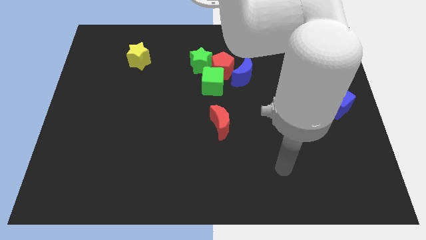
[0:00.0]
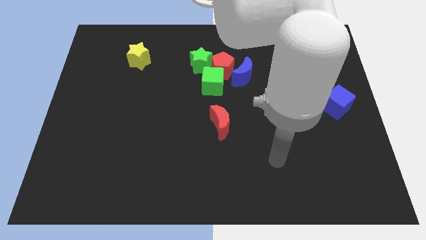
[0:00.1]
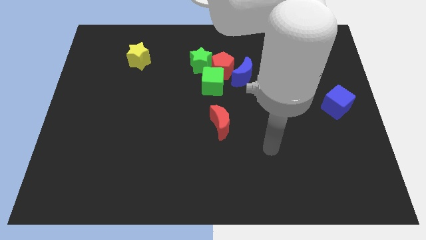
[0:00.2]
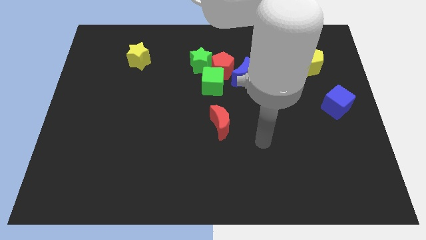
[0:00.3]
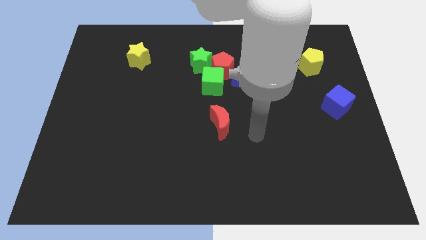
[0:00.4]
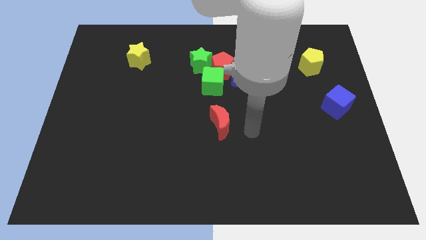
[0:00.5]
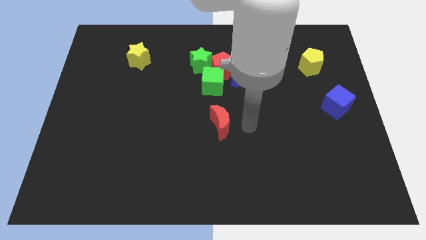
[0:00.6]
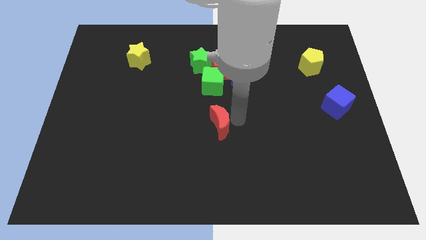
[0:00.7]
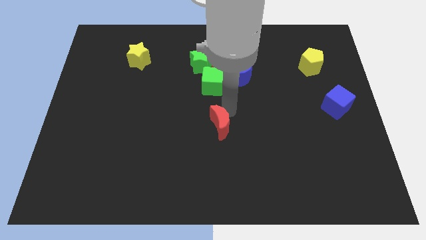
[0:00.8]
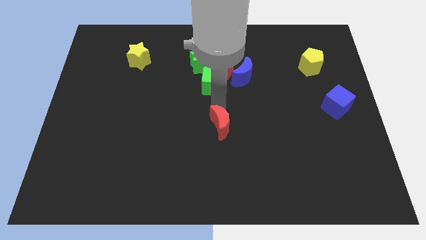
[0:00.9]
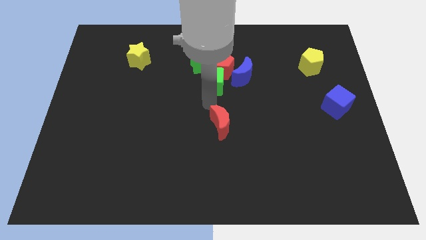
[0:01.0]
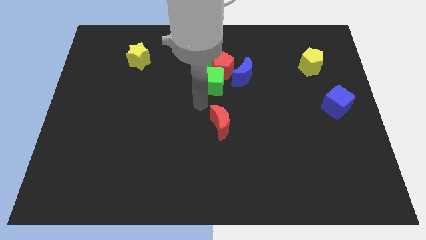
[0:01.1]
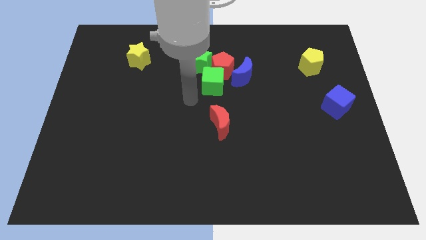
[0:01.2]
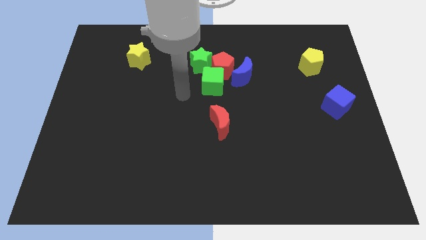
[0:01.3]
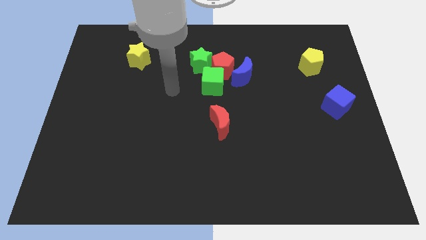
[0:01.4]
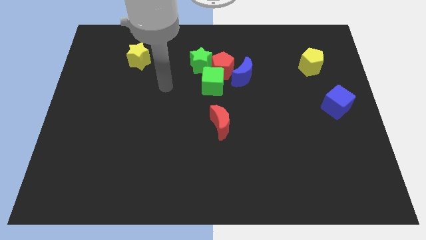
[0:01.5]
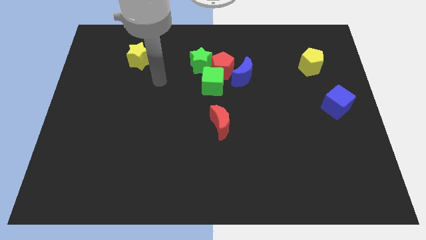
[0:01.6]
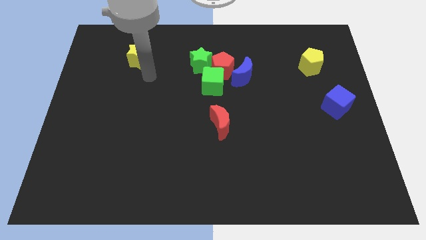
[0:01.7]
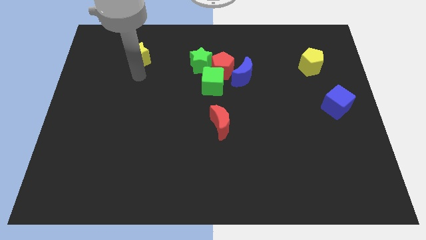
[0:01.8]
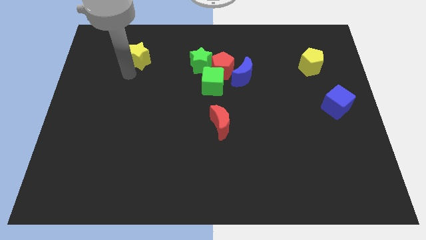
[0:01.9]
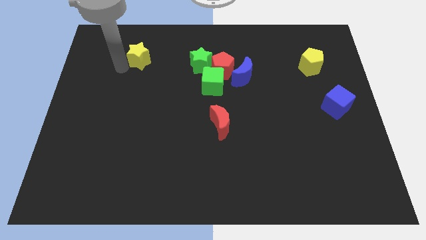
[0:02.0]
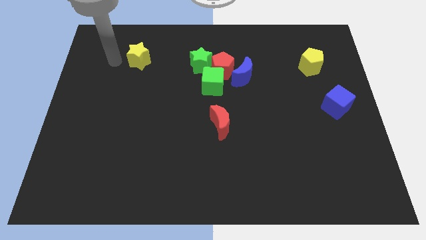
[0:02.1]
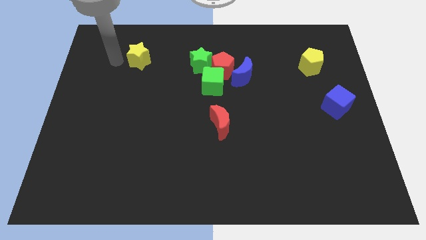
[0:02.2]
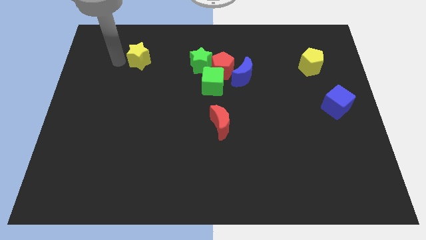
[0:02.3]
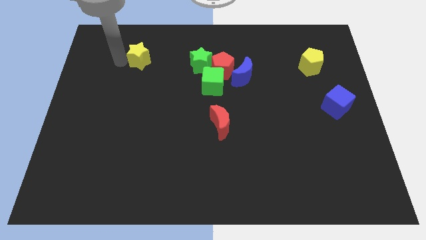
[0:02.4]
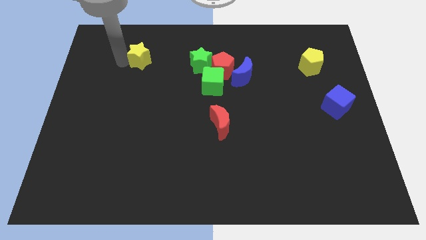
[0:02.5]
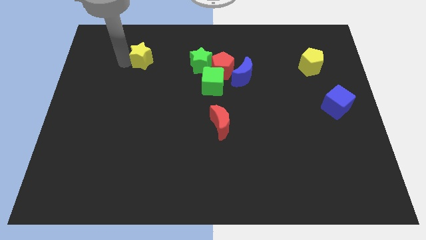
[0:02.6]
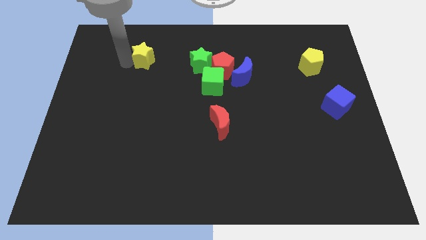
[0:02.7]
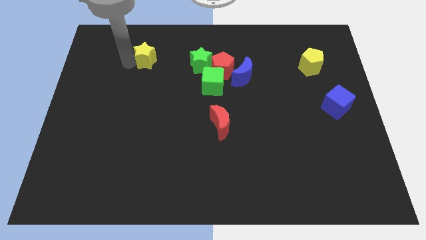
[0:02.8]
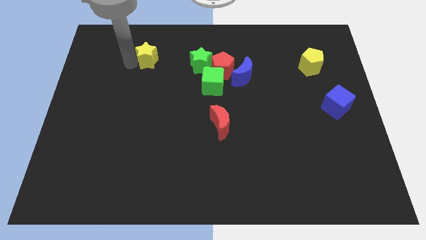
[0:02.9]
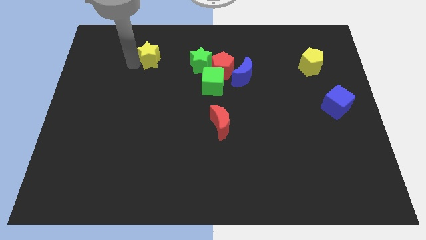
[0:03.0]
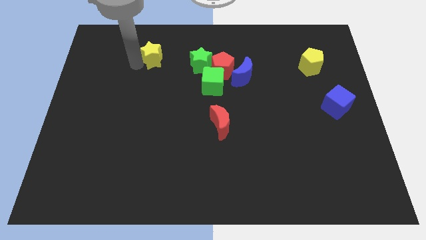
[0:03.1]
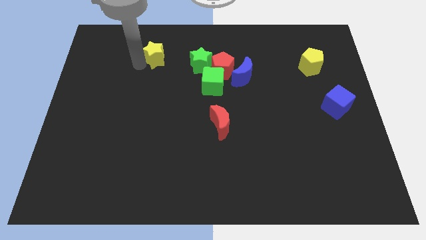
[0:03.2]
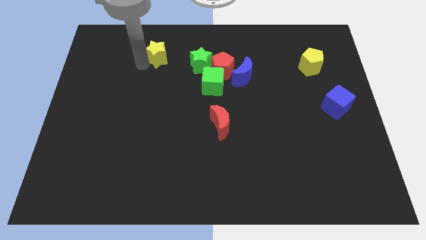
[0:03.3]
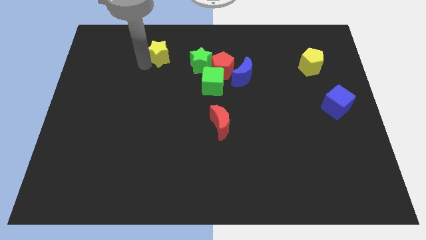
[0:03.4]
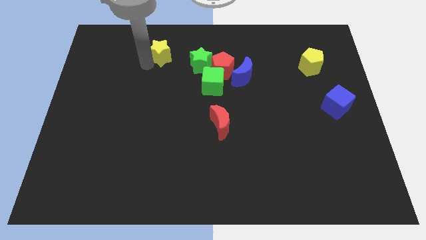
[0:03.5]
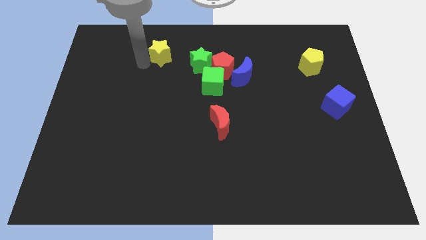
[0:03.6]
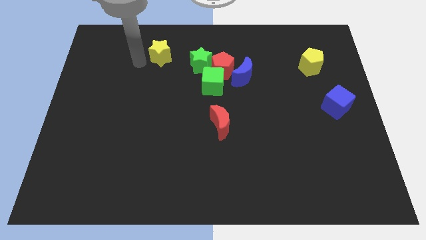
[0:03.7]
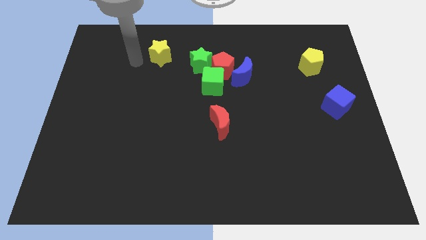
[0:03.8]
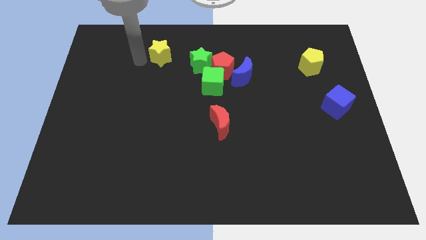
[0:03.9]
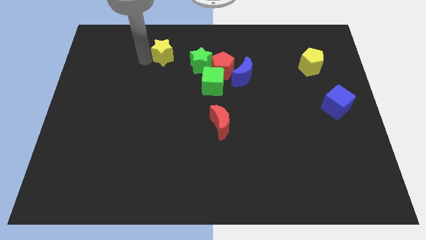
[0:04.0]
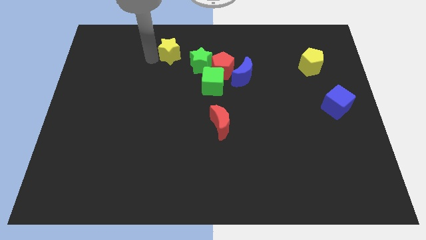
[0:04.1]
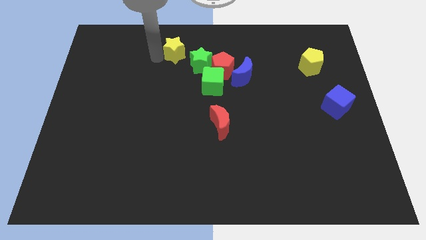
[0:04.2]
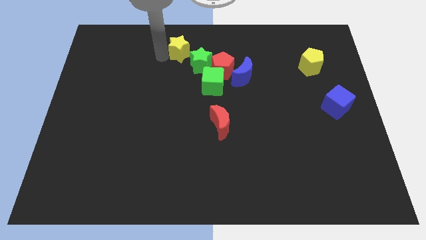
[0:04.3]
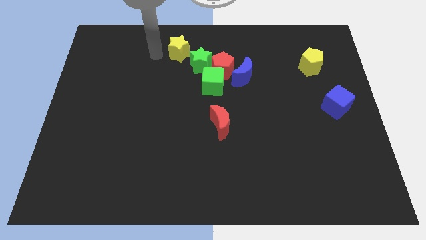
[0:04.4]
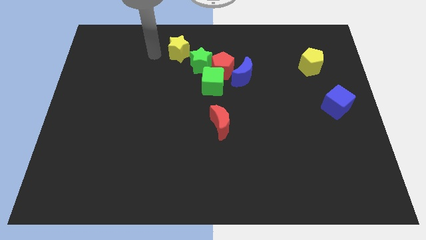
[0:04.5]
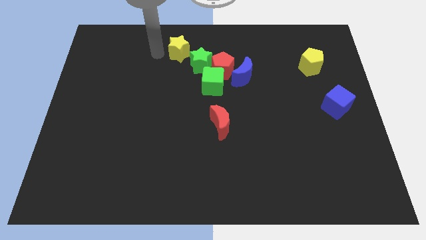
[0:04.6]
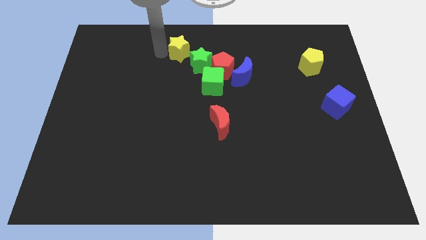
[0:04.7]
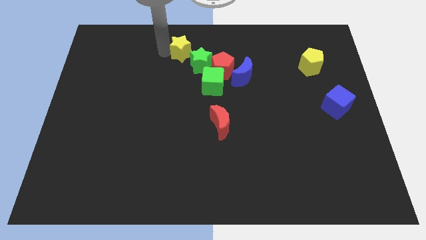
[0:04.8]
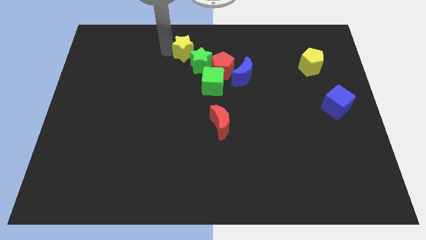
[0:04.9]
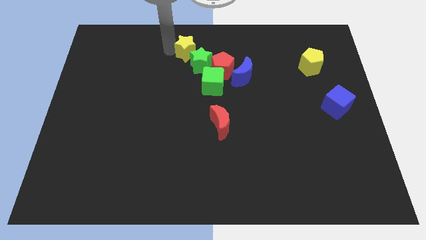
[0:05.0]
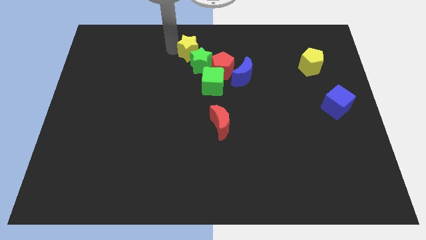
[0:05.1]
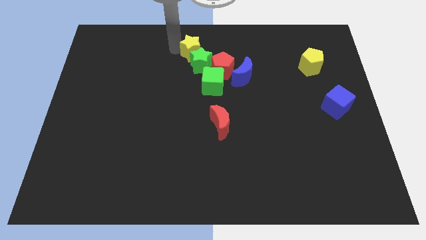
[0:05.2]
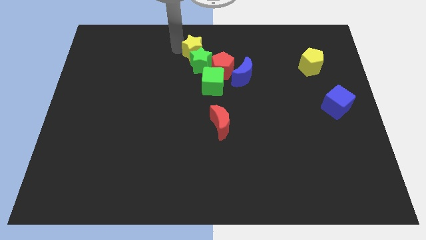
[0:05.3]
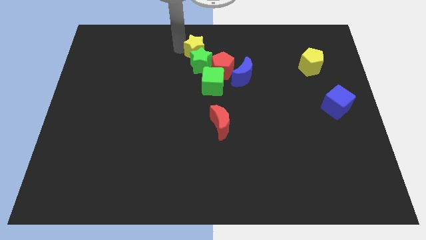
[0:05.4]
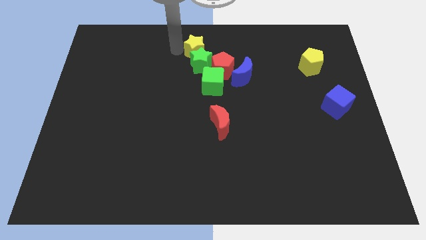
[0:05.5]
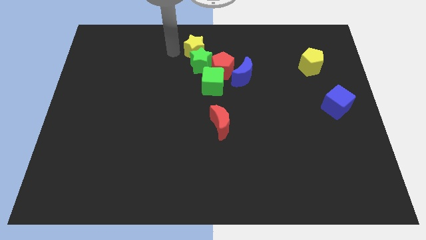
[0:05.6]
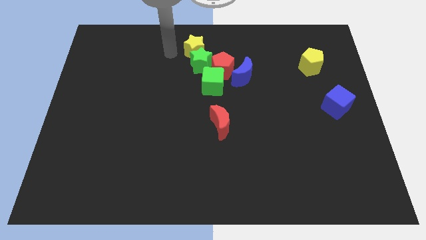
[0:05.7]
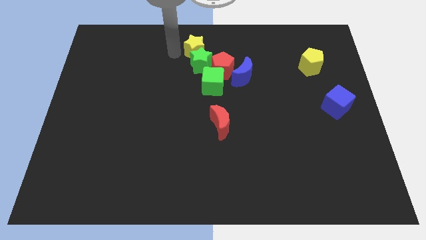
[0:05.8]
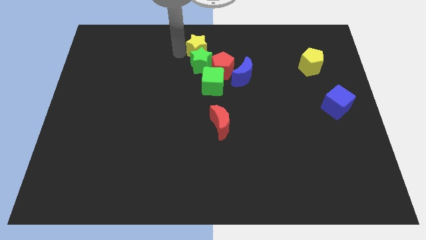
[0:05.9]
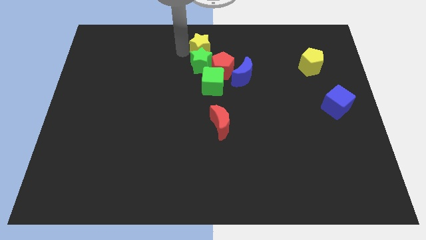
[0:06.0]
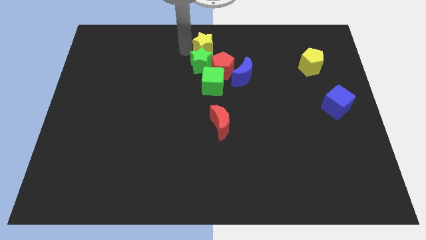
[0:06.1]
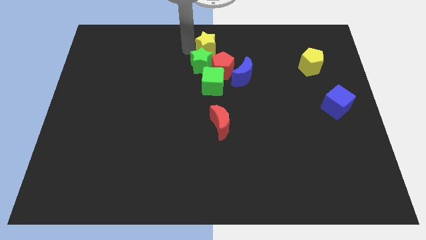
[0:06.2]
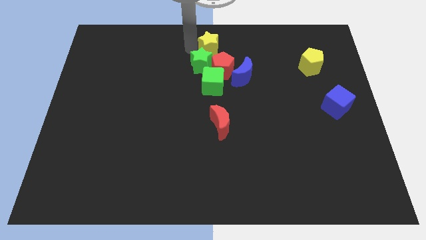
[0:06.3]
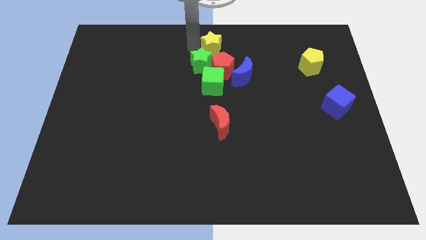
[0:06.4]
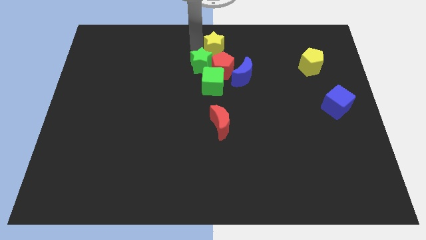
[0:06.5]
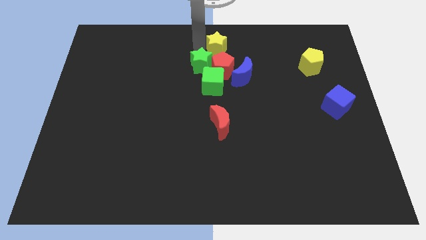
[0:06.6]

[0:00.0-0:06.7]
push the yellow star to the right

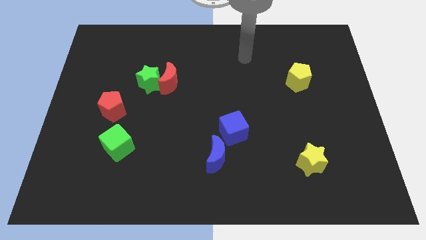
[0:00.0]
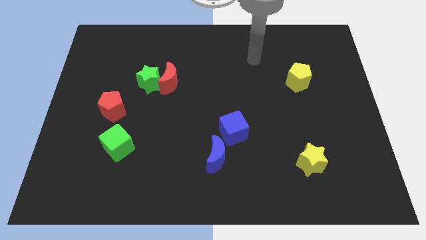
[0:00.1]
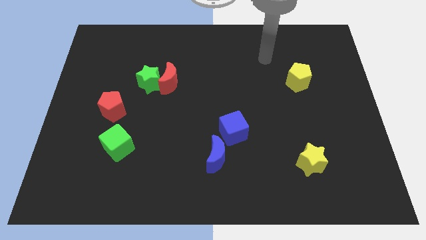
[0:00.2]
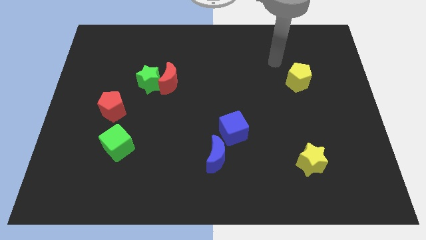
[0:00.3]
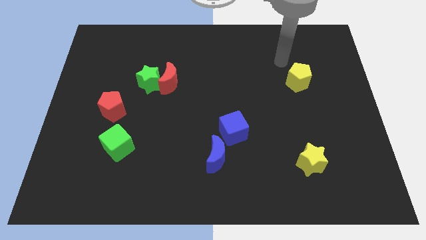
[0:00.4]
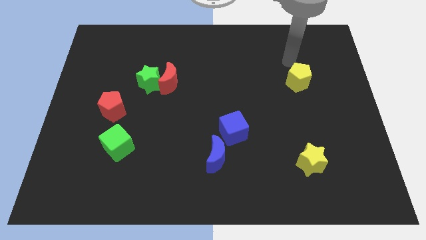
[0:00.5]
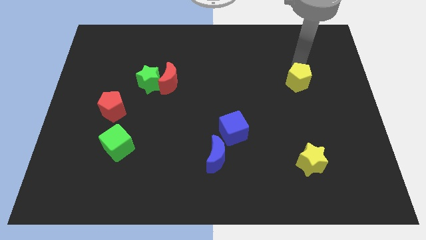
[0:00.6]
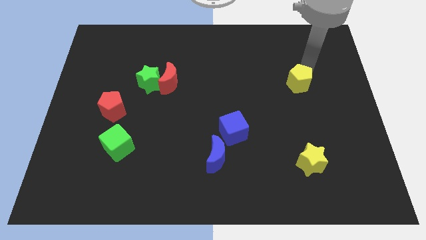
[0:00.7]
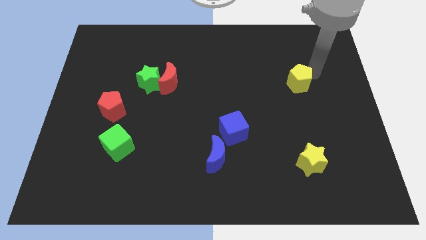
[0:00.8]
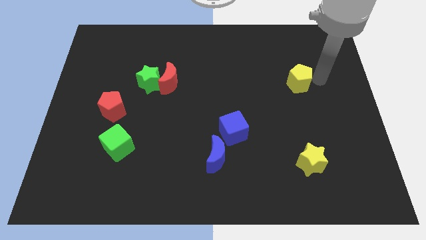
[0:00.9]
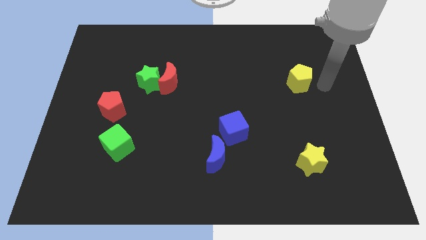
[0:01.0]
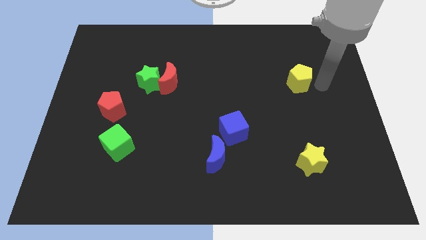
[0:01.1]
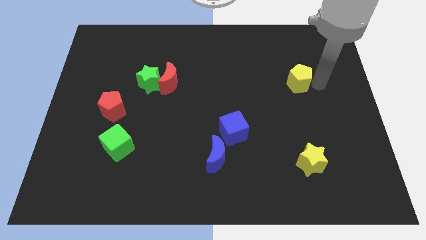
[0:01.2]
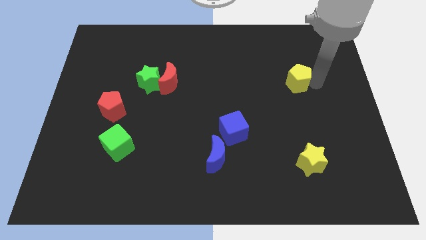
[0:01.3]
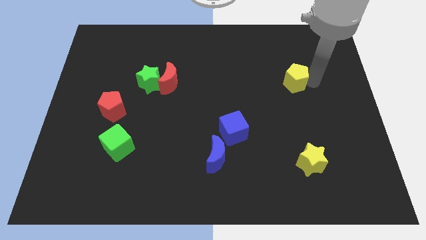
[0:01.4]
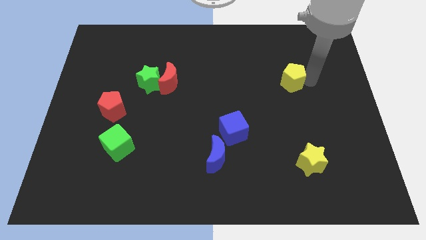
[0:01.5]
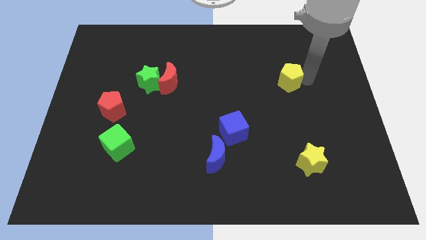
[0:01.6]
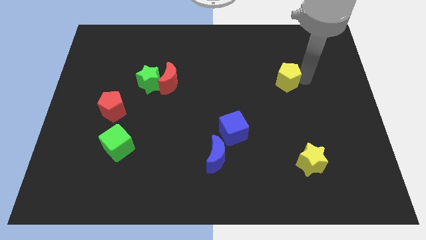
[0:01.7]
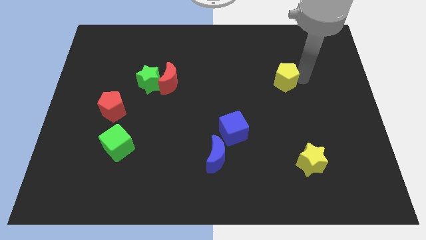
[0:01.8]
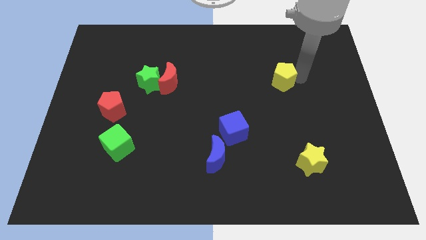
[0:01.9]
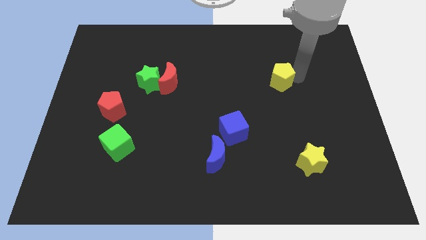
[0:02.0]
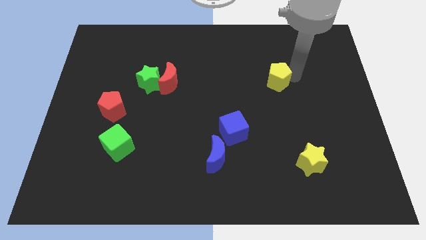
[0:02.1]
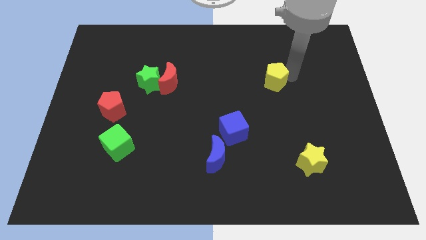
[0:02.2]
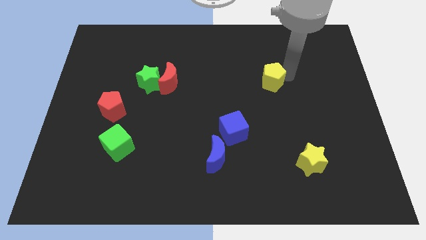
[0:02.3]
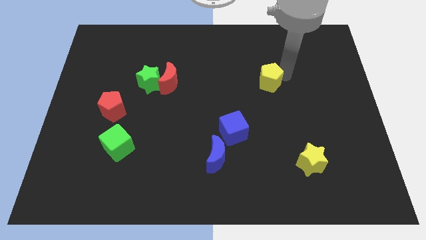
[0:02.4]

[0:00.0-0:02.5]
slide the yellow pentagon slightly left
